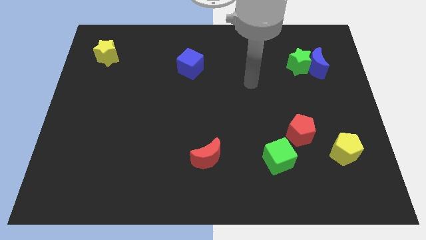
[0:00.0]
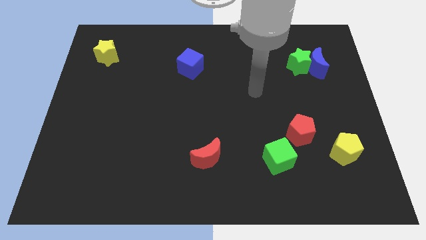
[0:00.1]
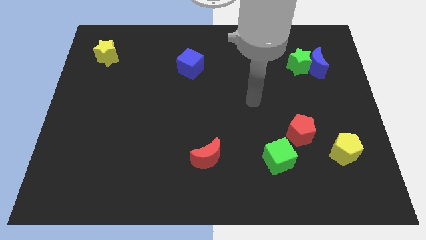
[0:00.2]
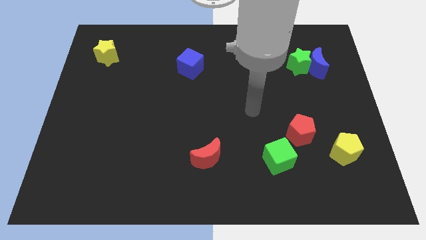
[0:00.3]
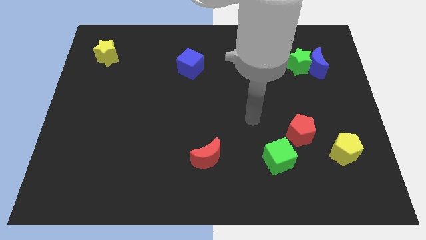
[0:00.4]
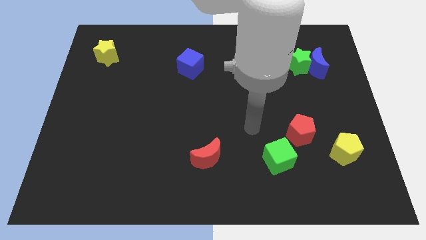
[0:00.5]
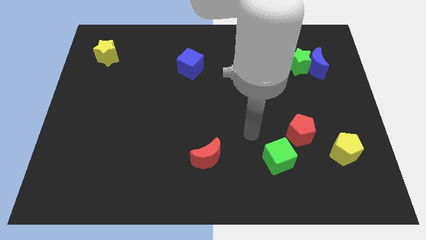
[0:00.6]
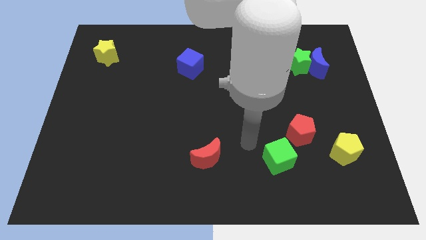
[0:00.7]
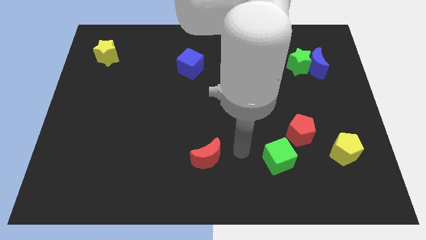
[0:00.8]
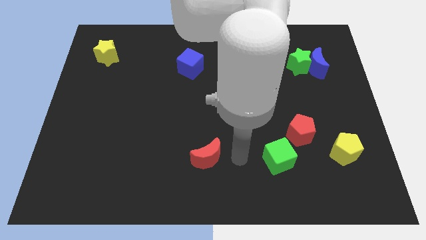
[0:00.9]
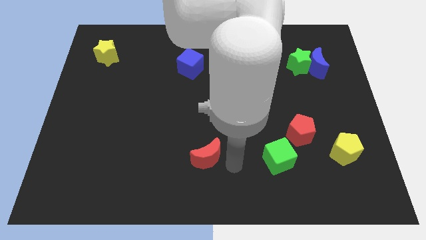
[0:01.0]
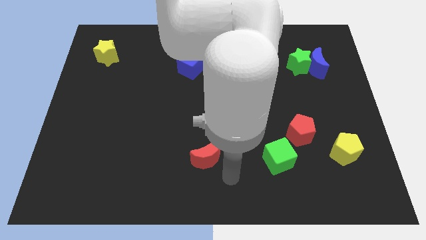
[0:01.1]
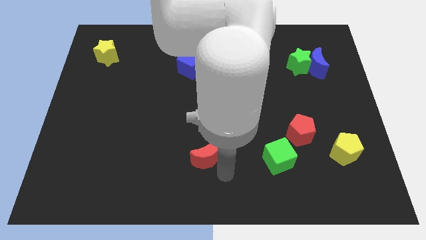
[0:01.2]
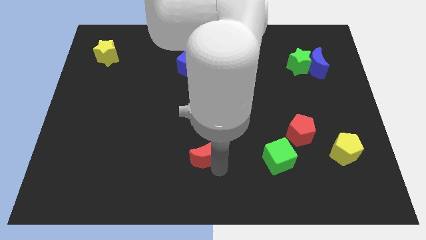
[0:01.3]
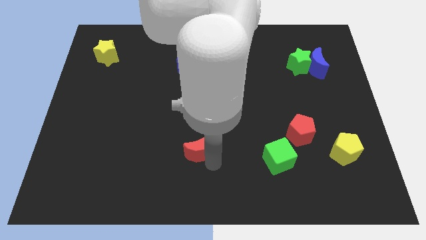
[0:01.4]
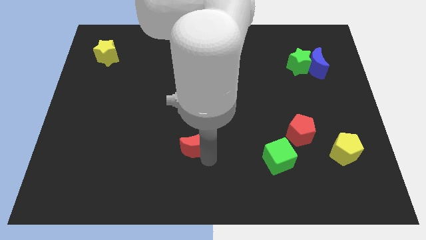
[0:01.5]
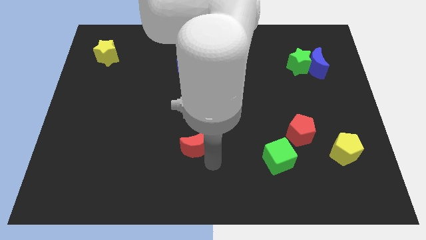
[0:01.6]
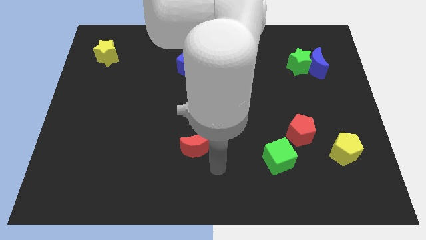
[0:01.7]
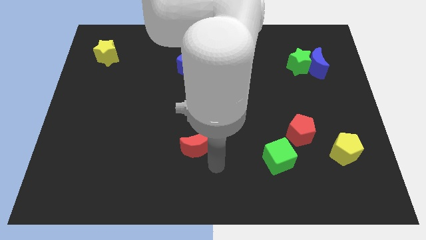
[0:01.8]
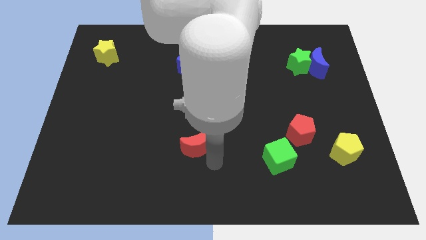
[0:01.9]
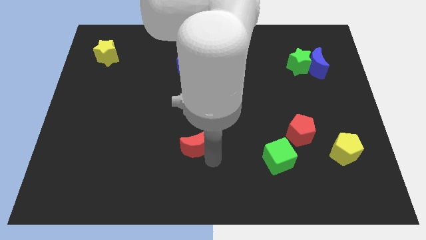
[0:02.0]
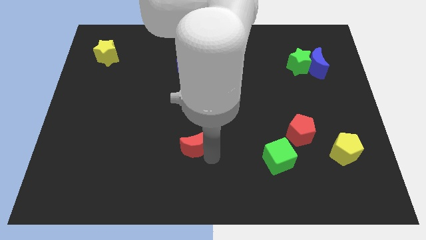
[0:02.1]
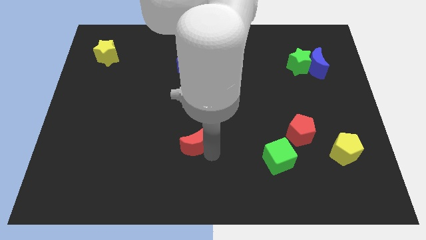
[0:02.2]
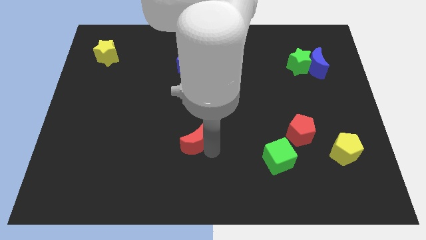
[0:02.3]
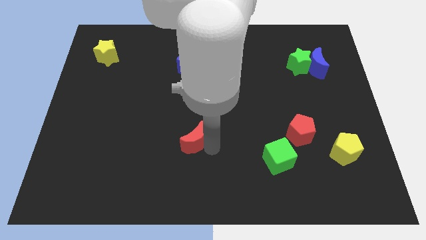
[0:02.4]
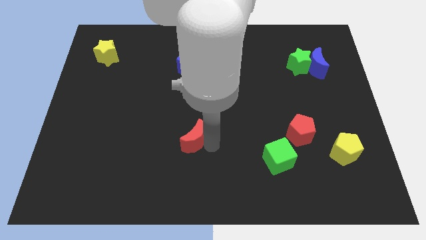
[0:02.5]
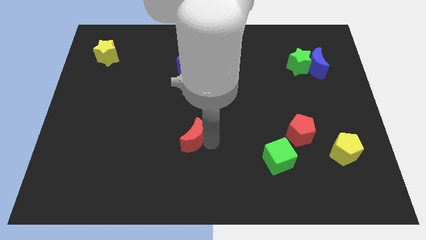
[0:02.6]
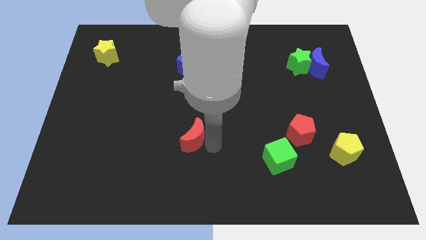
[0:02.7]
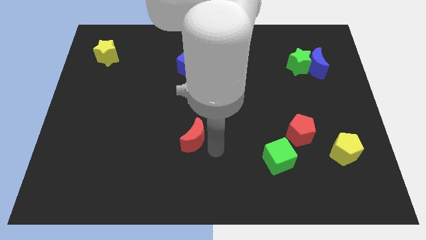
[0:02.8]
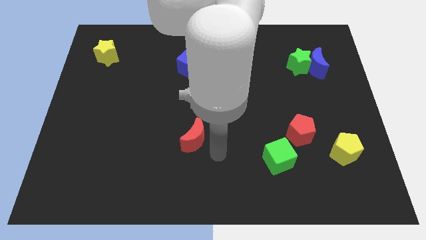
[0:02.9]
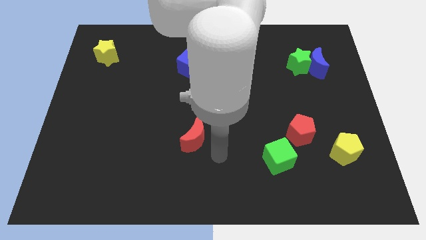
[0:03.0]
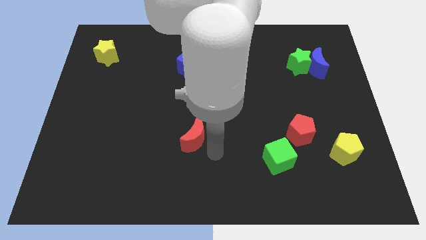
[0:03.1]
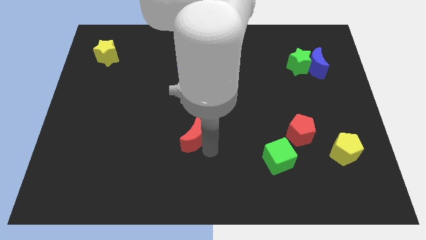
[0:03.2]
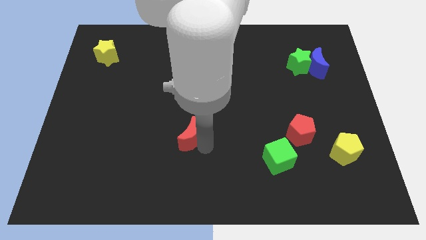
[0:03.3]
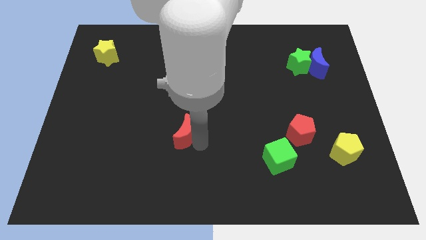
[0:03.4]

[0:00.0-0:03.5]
slide the red moon diagonally up and to the left a bit

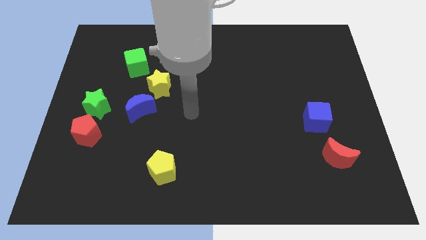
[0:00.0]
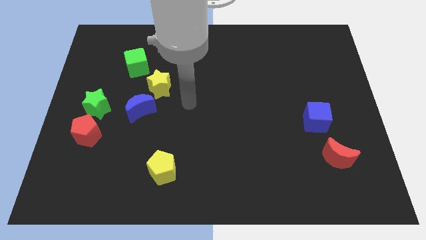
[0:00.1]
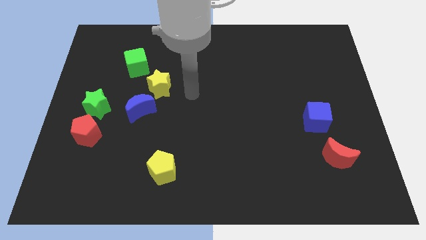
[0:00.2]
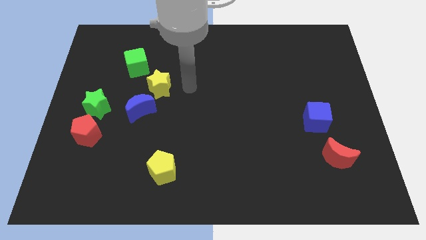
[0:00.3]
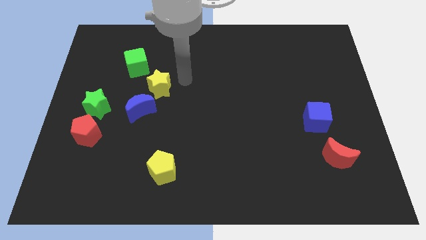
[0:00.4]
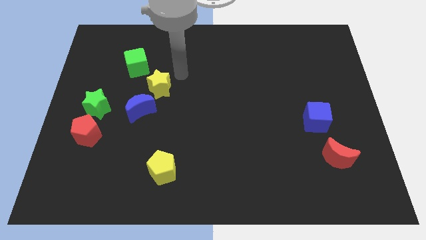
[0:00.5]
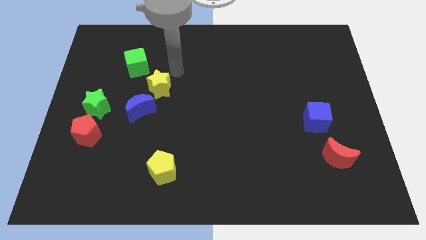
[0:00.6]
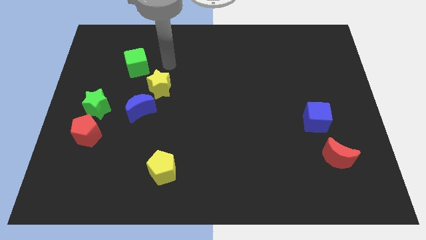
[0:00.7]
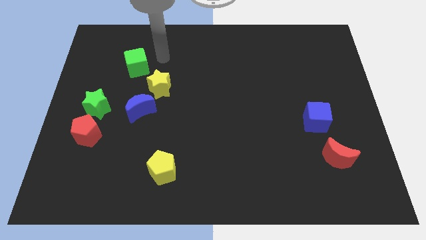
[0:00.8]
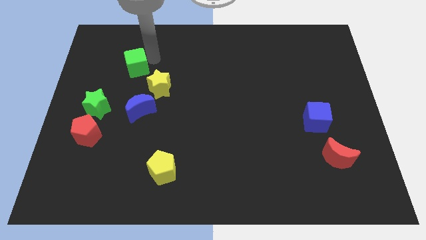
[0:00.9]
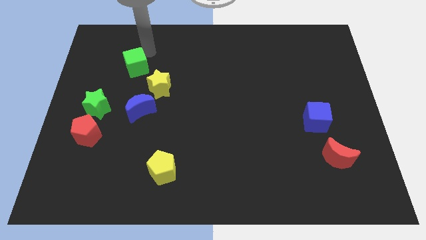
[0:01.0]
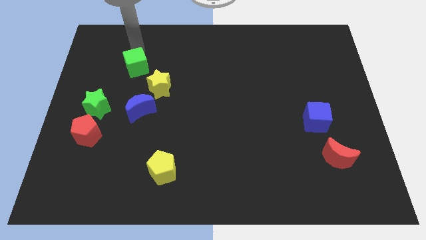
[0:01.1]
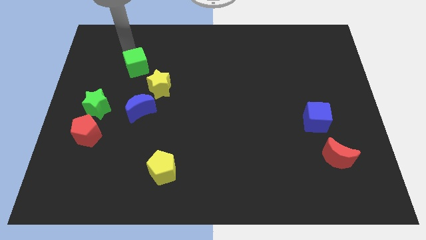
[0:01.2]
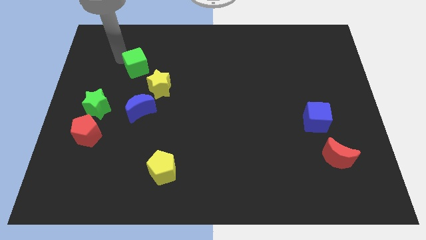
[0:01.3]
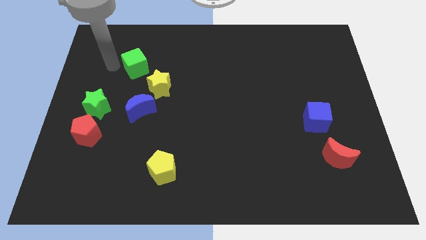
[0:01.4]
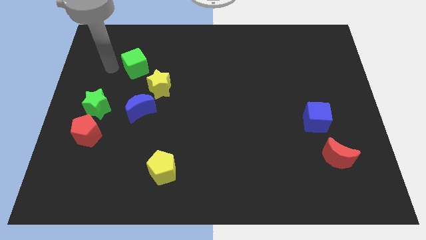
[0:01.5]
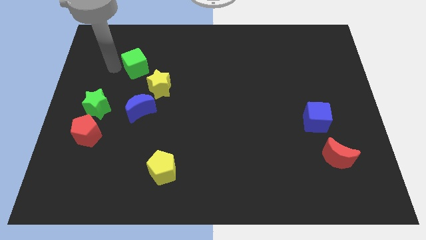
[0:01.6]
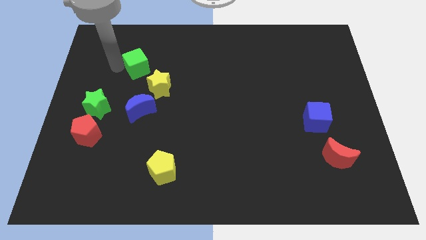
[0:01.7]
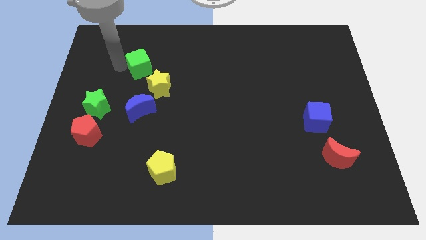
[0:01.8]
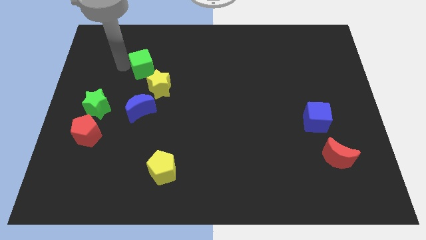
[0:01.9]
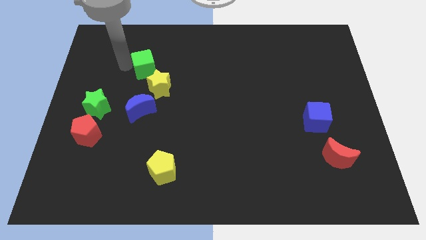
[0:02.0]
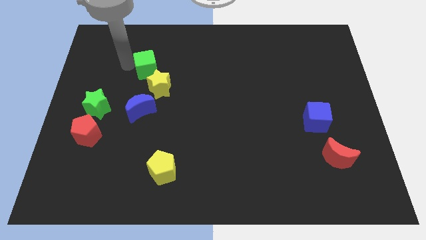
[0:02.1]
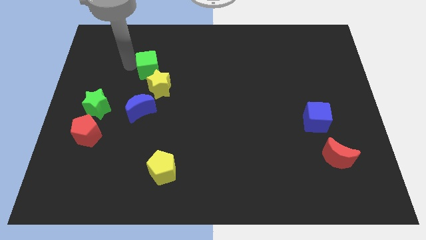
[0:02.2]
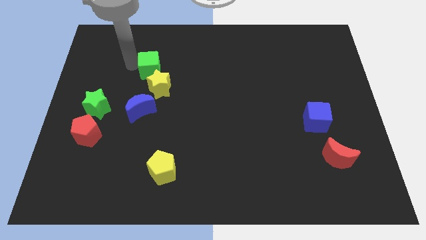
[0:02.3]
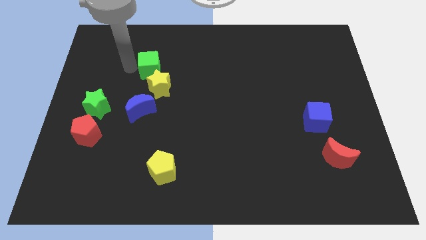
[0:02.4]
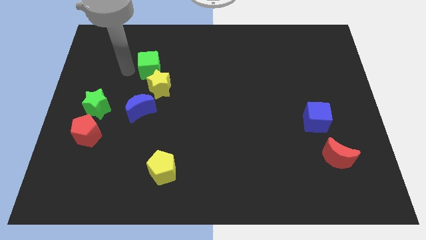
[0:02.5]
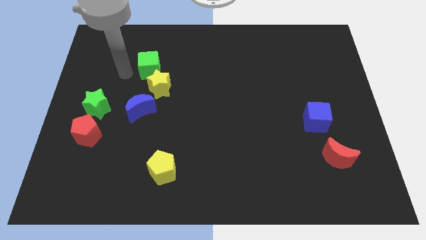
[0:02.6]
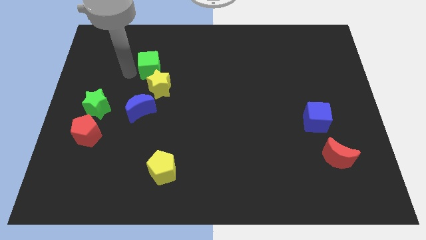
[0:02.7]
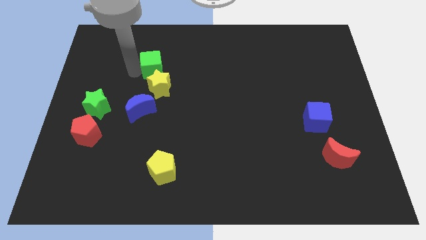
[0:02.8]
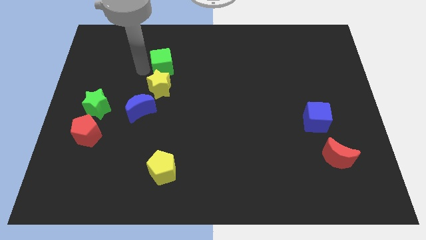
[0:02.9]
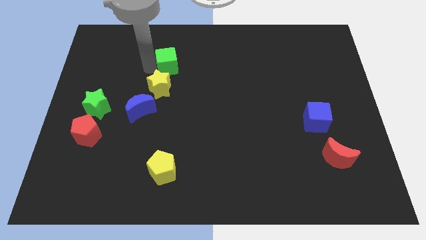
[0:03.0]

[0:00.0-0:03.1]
push the green cube to the right somewhat

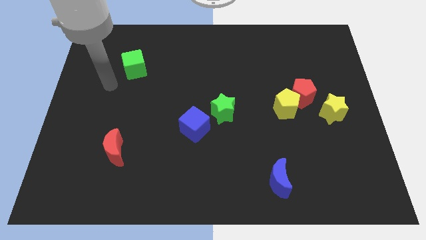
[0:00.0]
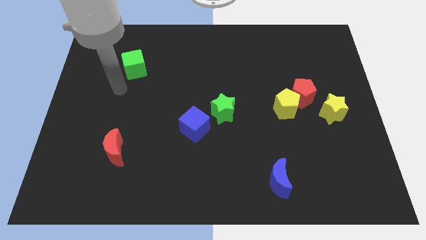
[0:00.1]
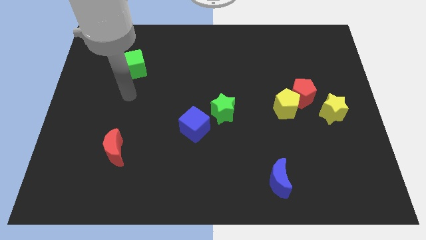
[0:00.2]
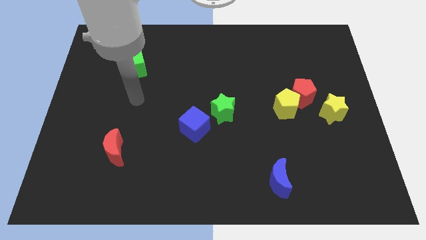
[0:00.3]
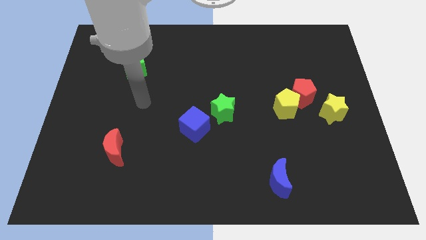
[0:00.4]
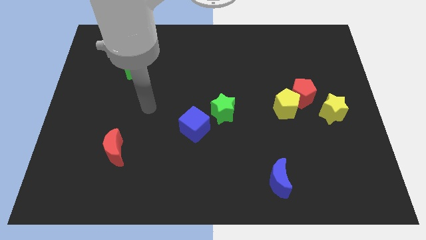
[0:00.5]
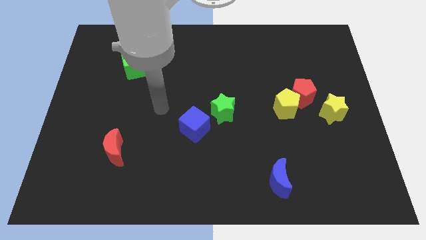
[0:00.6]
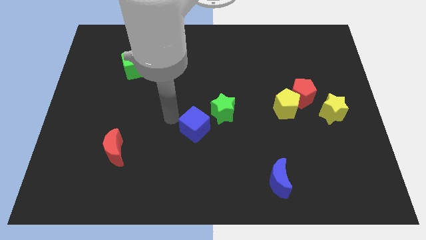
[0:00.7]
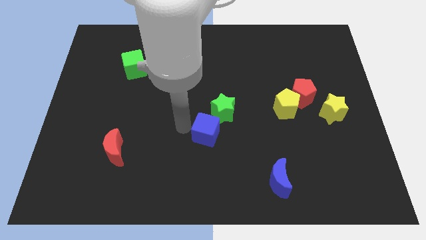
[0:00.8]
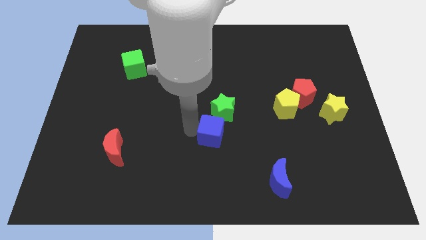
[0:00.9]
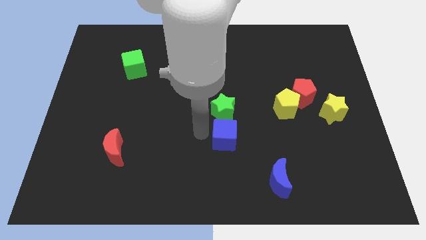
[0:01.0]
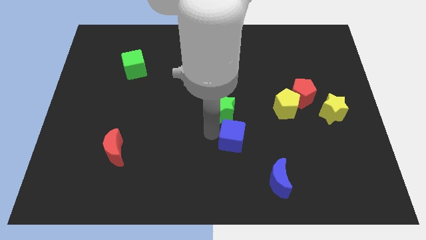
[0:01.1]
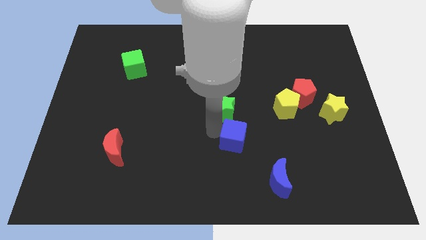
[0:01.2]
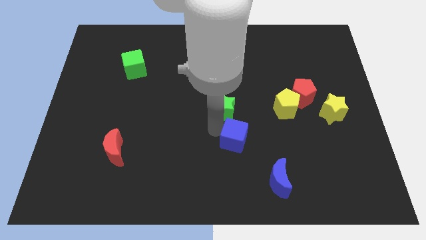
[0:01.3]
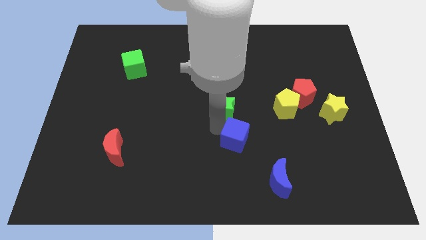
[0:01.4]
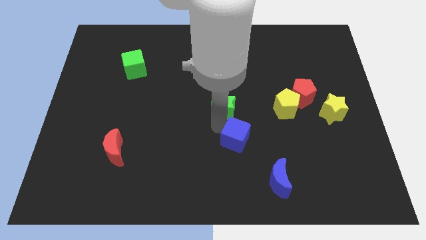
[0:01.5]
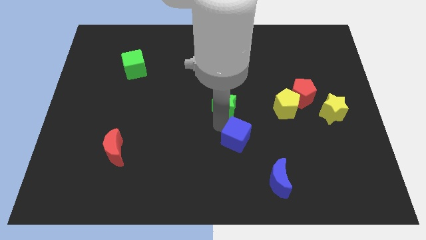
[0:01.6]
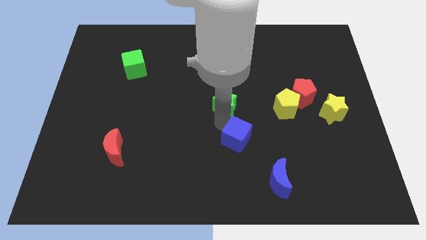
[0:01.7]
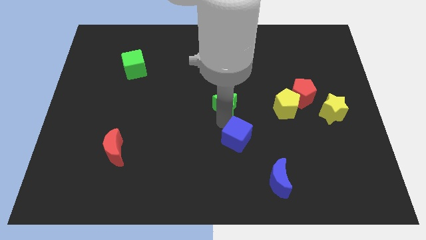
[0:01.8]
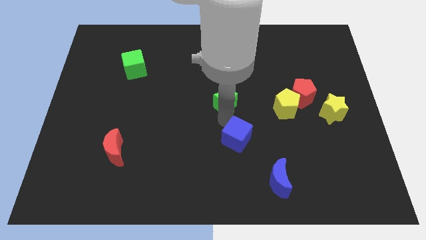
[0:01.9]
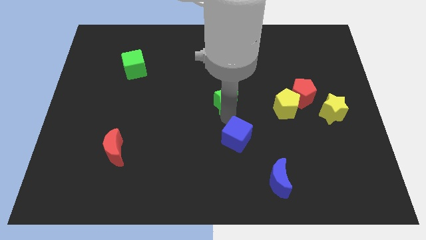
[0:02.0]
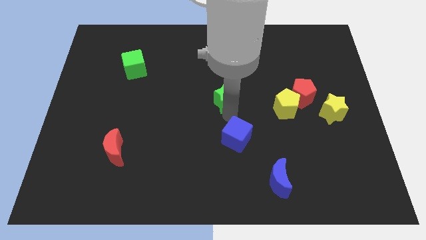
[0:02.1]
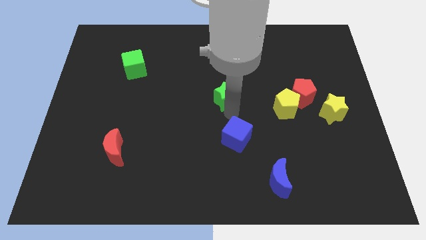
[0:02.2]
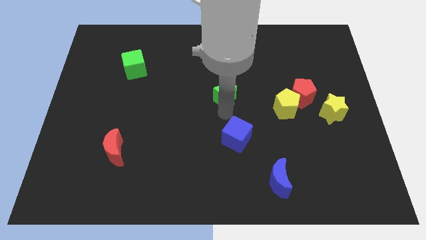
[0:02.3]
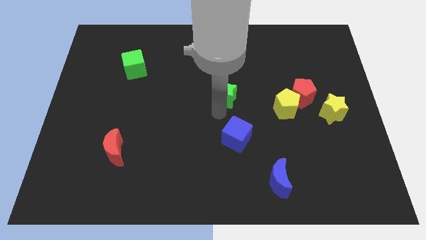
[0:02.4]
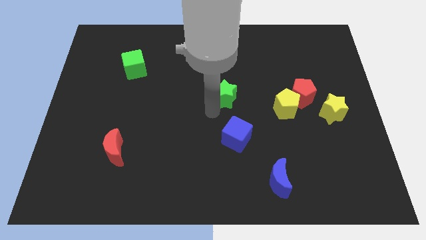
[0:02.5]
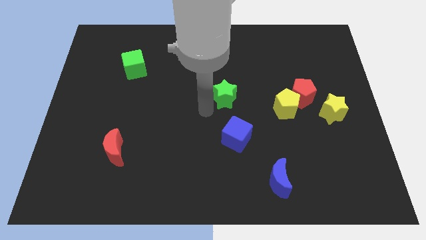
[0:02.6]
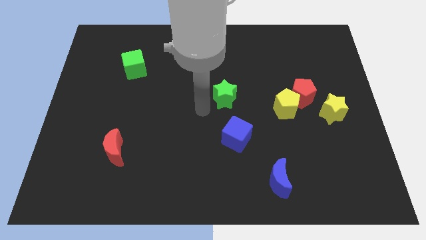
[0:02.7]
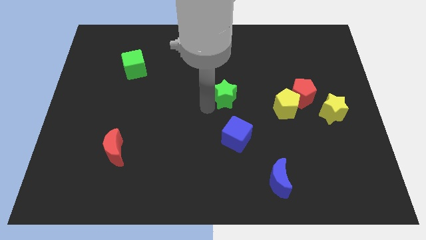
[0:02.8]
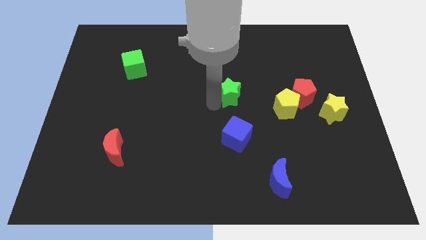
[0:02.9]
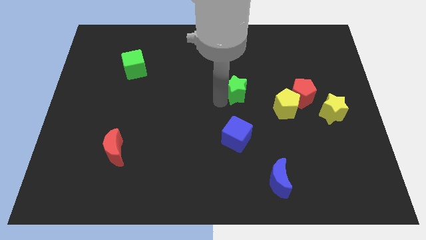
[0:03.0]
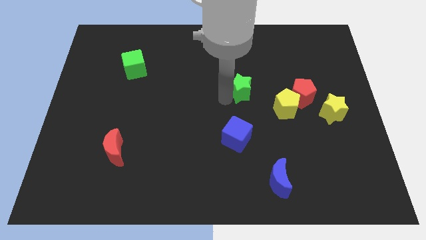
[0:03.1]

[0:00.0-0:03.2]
move the green star upwards and right diagonally a little bit
